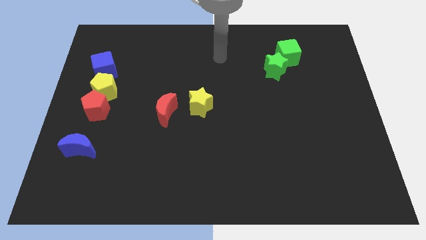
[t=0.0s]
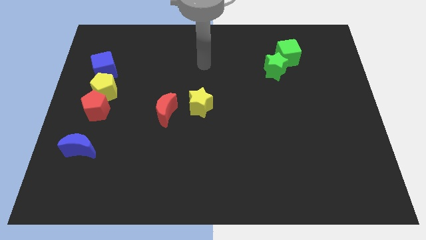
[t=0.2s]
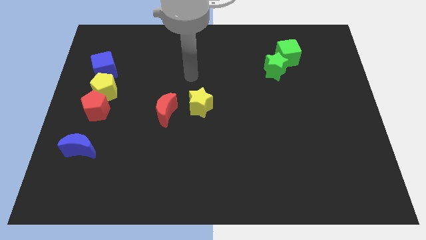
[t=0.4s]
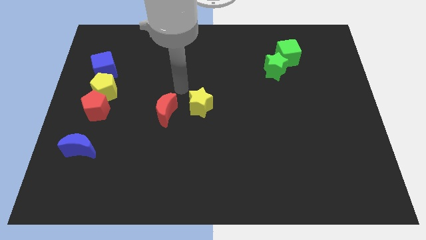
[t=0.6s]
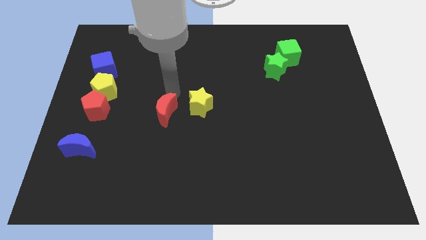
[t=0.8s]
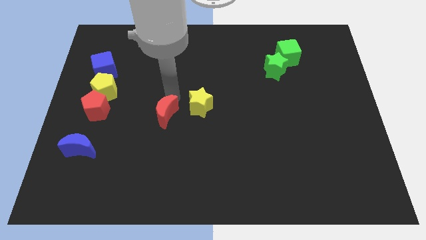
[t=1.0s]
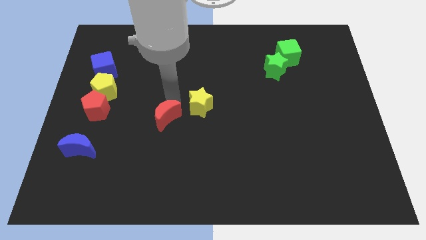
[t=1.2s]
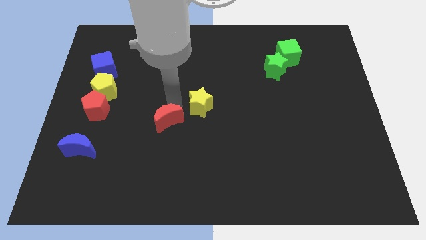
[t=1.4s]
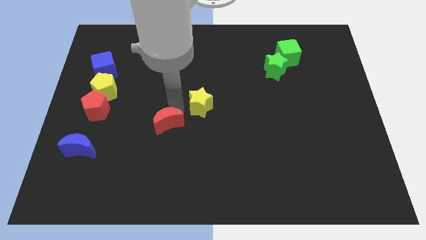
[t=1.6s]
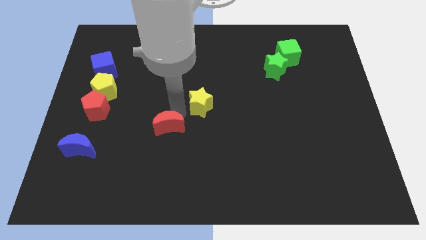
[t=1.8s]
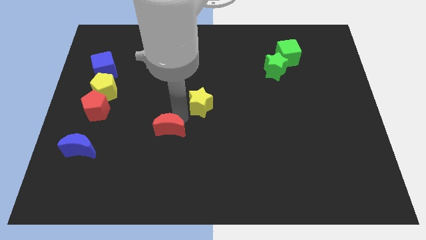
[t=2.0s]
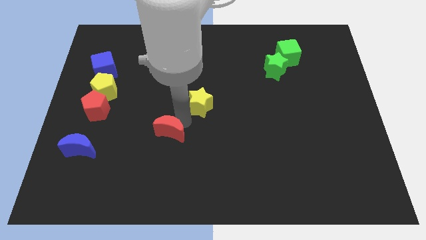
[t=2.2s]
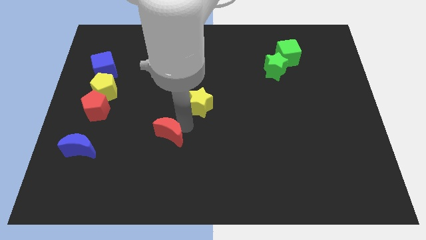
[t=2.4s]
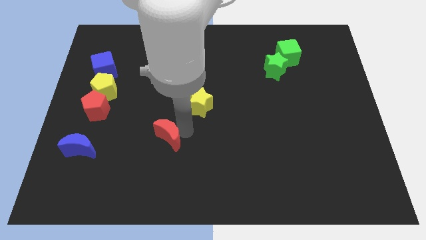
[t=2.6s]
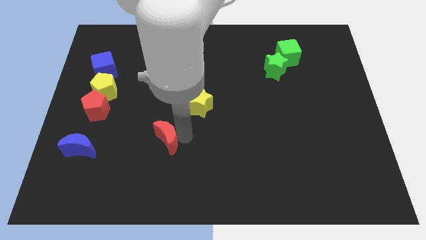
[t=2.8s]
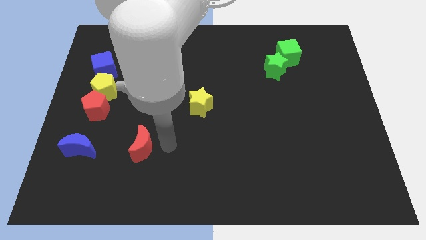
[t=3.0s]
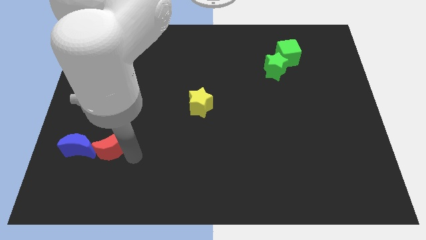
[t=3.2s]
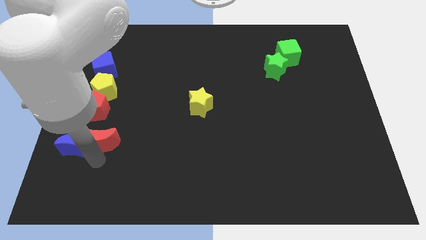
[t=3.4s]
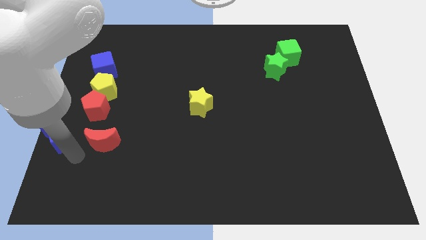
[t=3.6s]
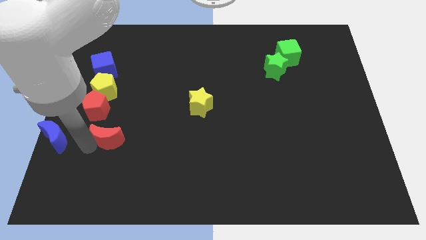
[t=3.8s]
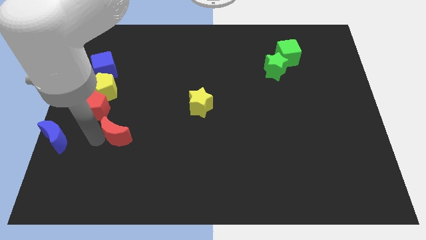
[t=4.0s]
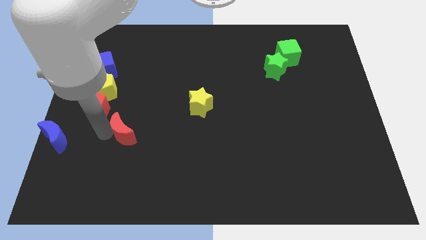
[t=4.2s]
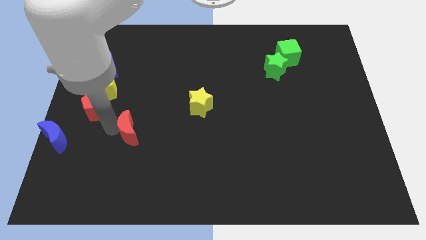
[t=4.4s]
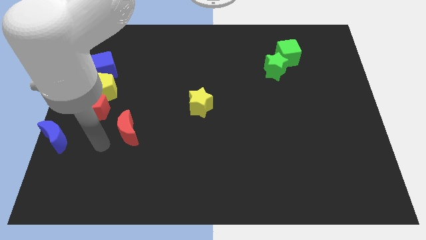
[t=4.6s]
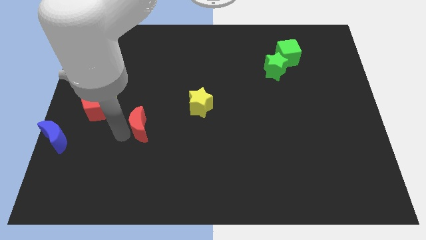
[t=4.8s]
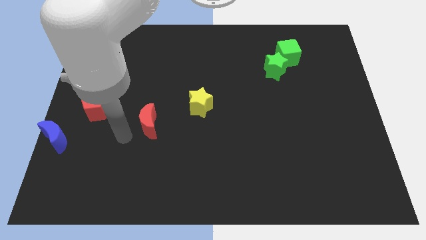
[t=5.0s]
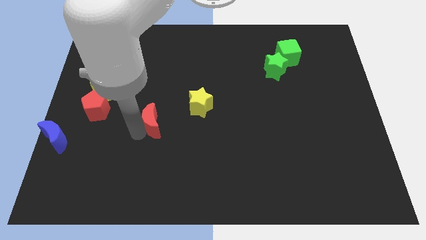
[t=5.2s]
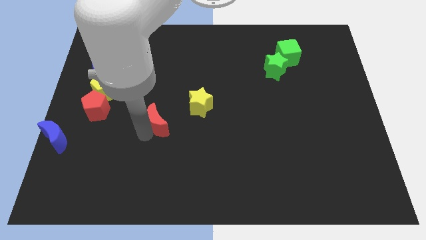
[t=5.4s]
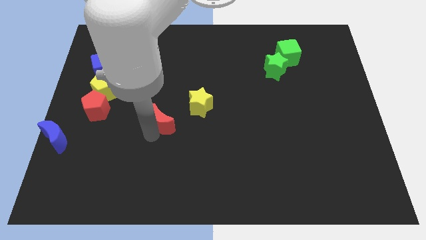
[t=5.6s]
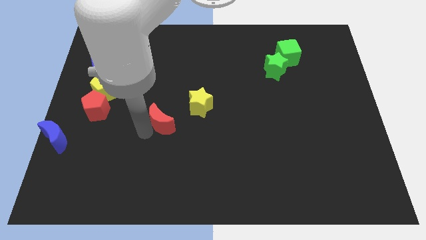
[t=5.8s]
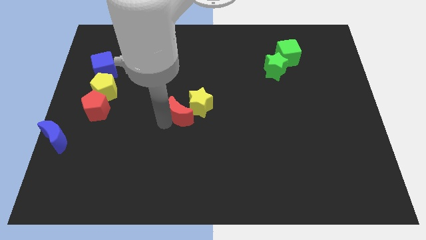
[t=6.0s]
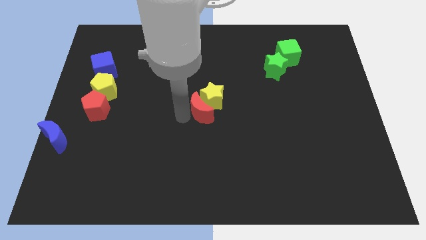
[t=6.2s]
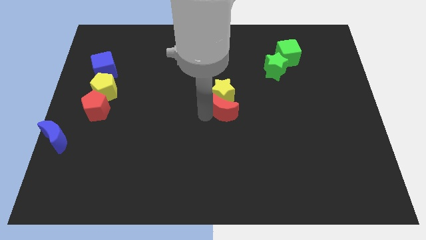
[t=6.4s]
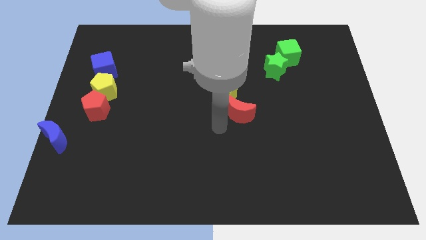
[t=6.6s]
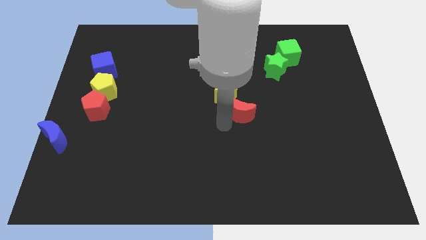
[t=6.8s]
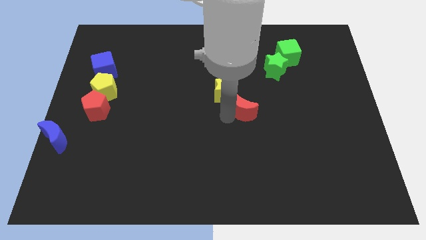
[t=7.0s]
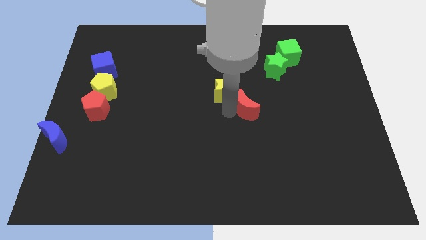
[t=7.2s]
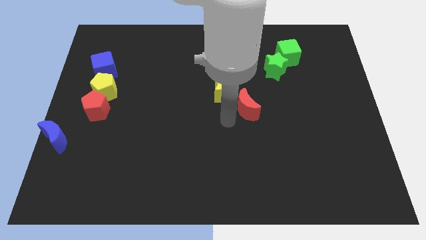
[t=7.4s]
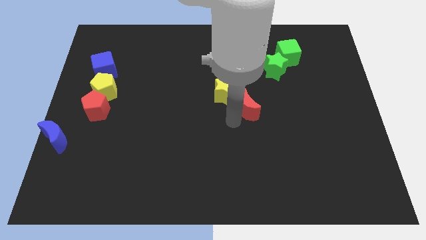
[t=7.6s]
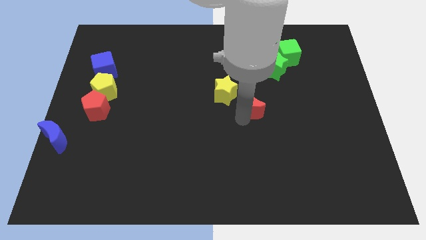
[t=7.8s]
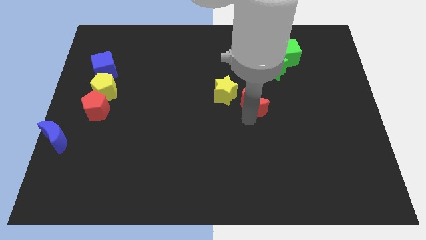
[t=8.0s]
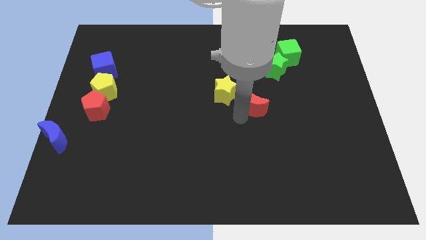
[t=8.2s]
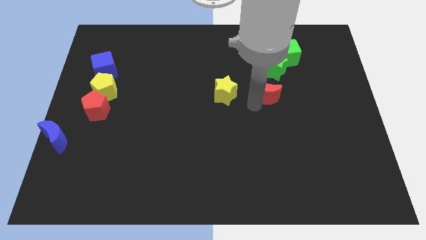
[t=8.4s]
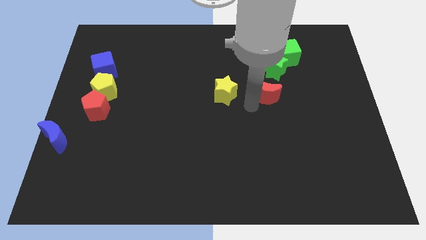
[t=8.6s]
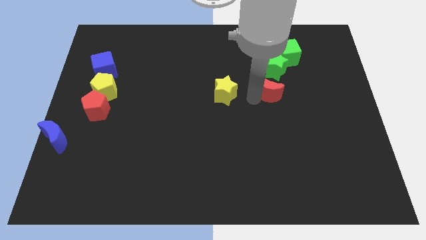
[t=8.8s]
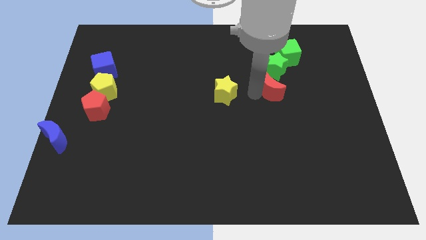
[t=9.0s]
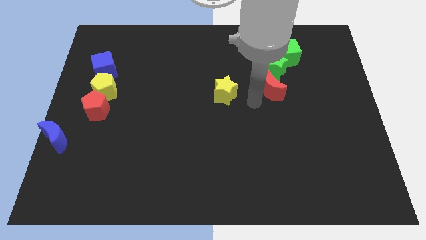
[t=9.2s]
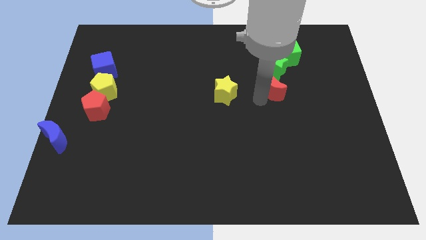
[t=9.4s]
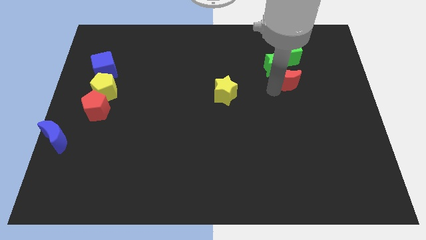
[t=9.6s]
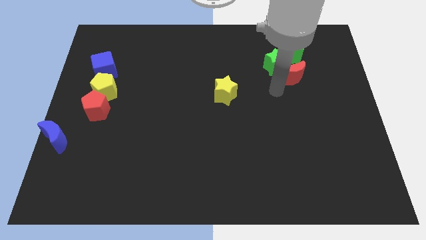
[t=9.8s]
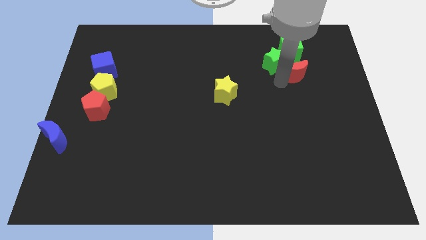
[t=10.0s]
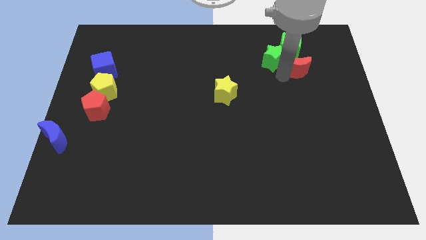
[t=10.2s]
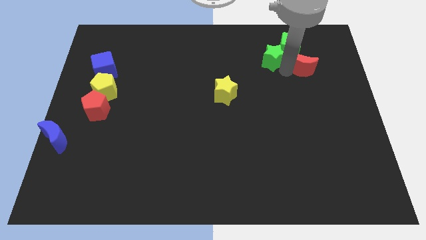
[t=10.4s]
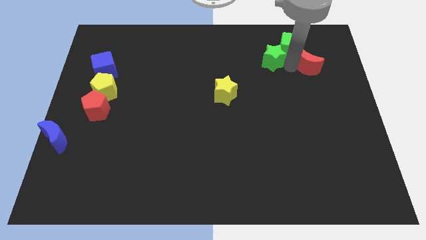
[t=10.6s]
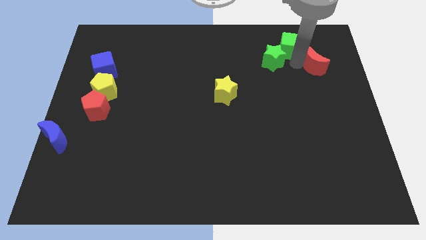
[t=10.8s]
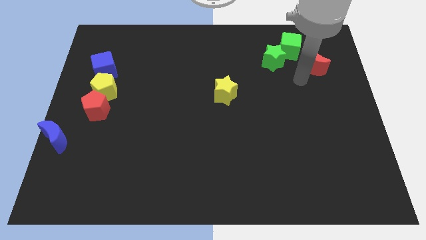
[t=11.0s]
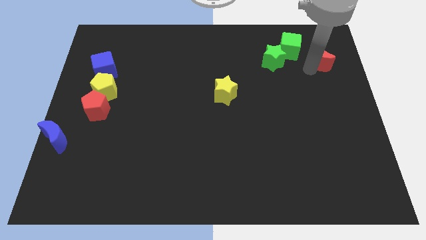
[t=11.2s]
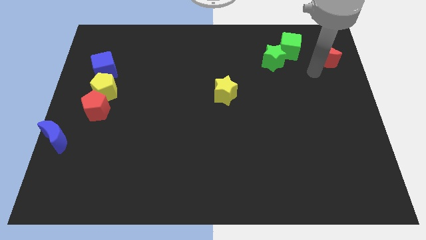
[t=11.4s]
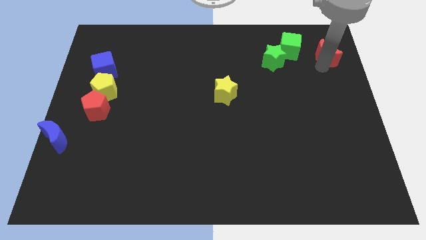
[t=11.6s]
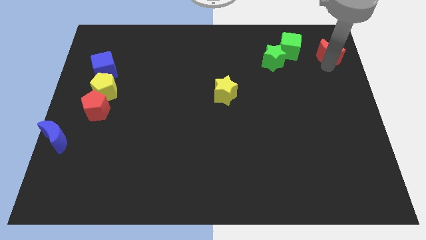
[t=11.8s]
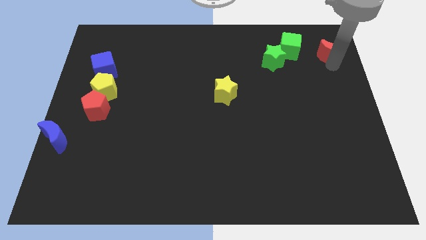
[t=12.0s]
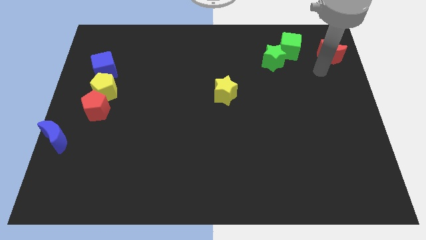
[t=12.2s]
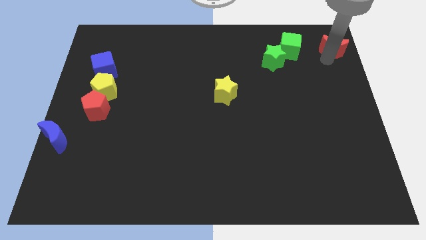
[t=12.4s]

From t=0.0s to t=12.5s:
slide the red moon to the top right of the board
